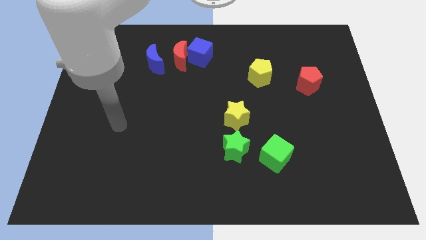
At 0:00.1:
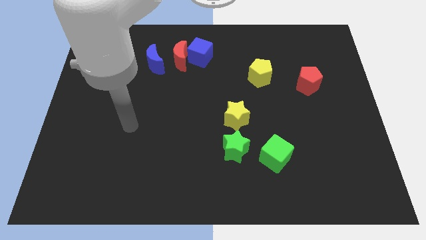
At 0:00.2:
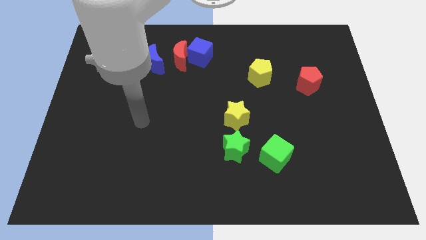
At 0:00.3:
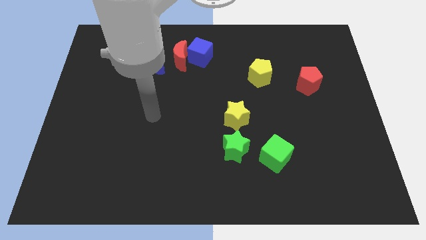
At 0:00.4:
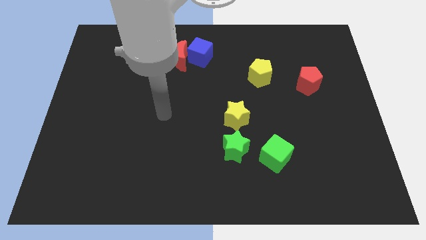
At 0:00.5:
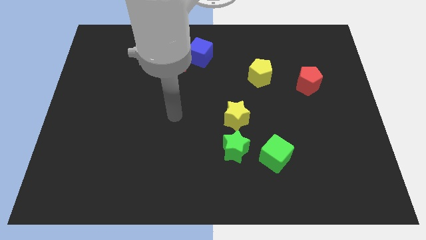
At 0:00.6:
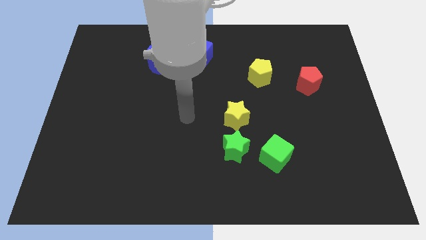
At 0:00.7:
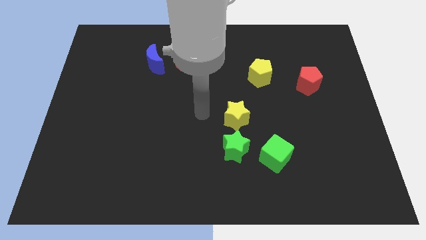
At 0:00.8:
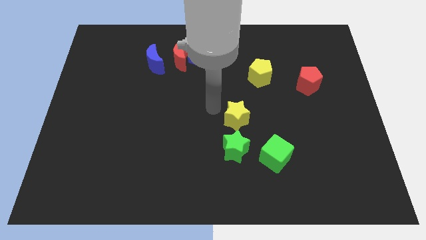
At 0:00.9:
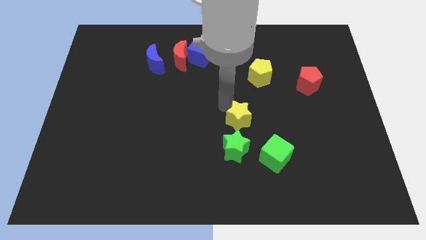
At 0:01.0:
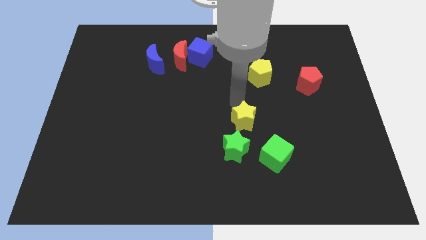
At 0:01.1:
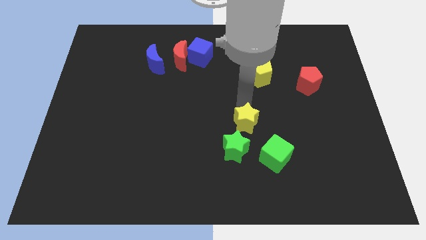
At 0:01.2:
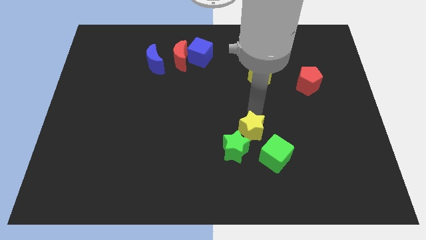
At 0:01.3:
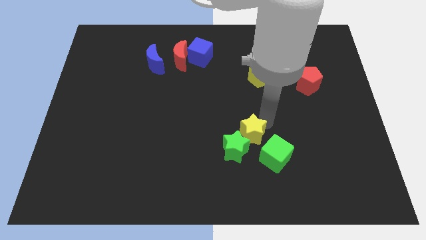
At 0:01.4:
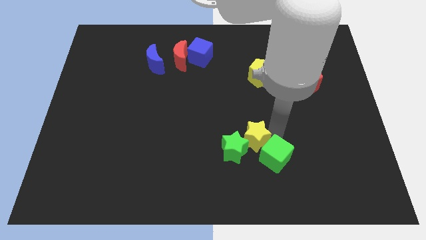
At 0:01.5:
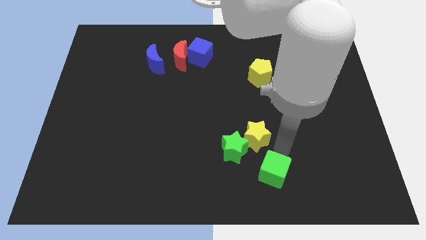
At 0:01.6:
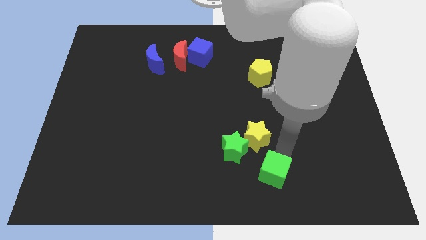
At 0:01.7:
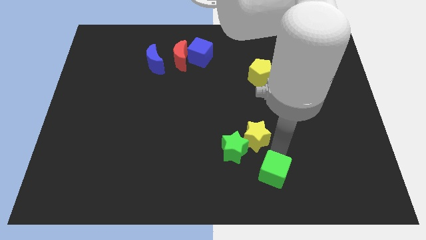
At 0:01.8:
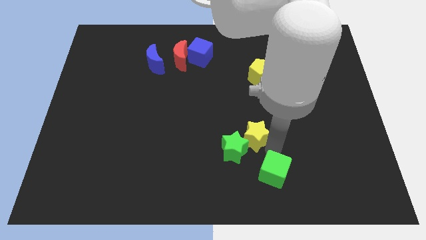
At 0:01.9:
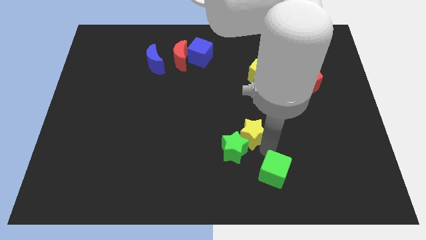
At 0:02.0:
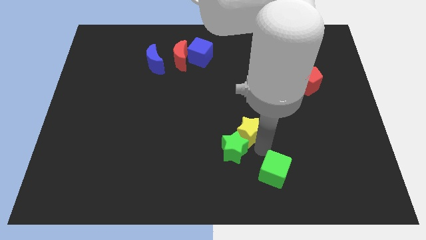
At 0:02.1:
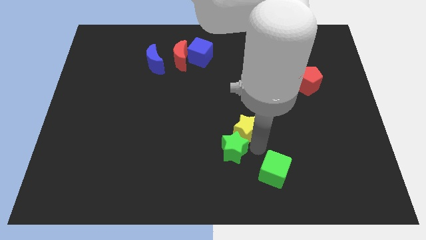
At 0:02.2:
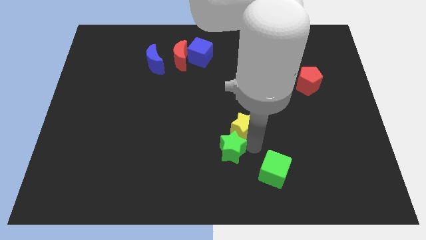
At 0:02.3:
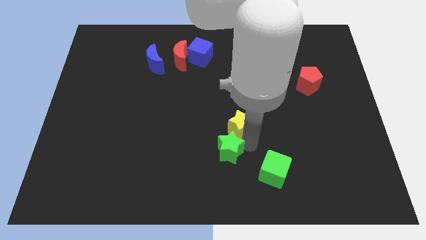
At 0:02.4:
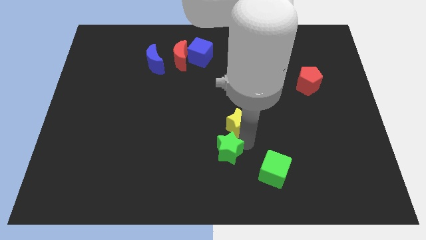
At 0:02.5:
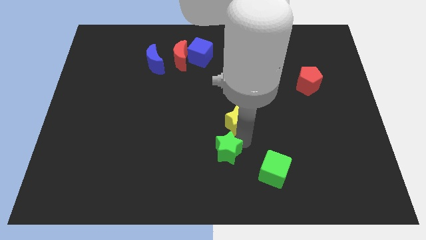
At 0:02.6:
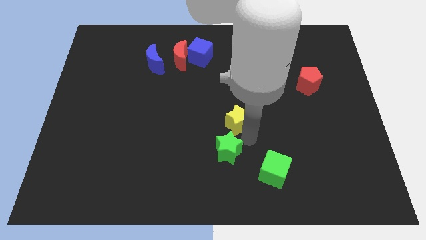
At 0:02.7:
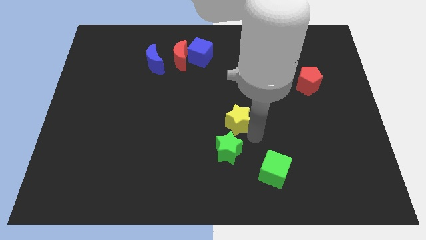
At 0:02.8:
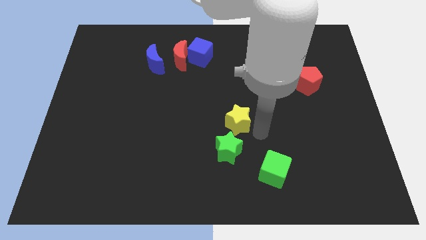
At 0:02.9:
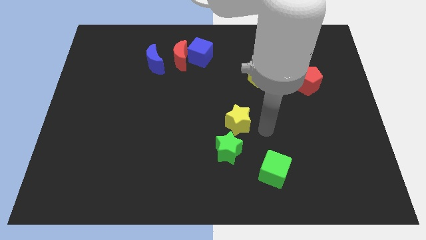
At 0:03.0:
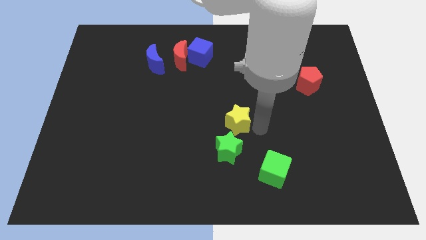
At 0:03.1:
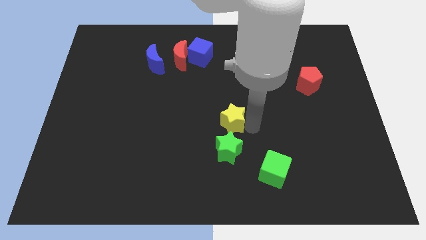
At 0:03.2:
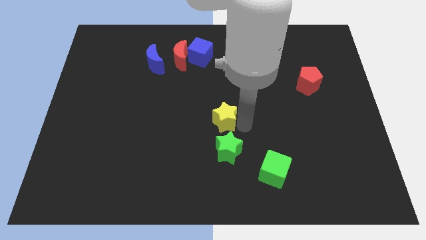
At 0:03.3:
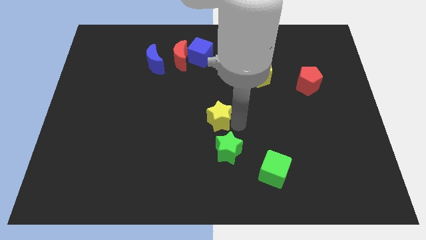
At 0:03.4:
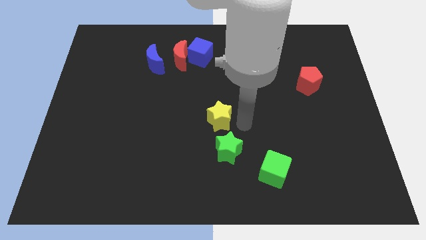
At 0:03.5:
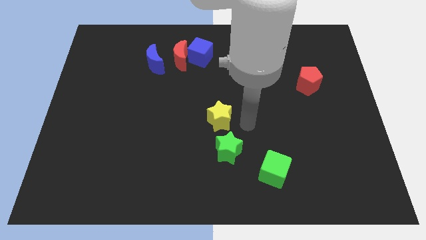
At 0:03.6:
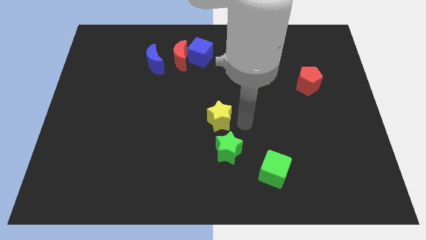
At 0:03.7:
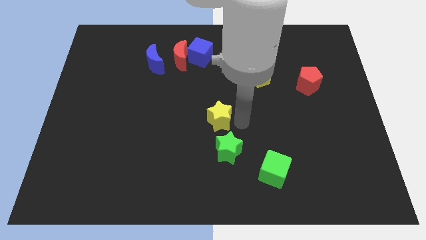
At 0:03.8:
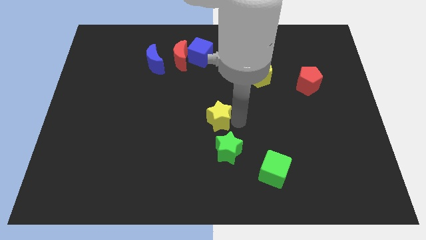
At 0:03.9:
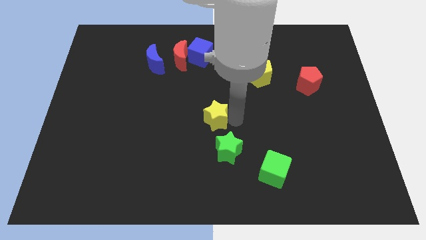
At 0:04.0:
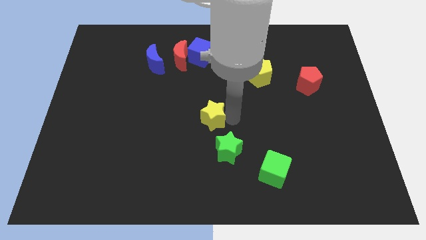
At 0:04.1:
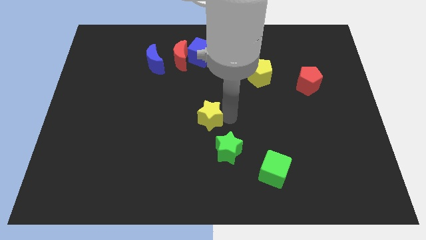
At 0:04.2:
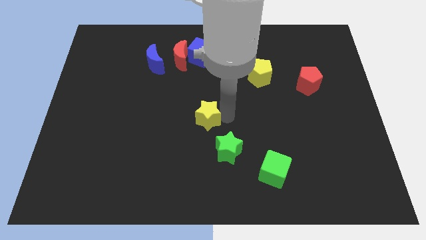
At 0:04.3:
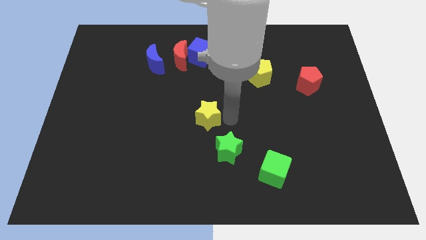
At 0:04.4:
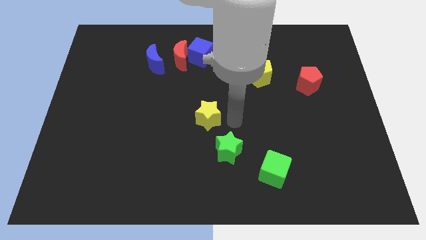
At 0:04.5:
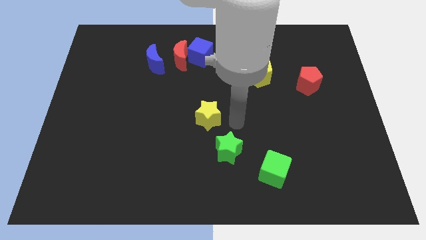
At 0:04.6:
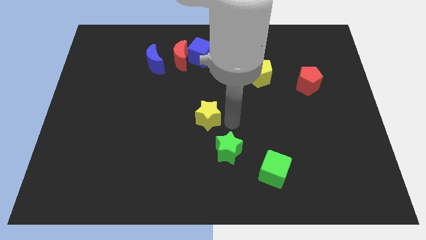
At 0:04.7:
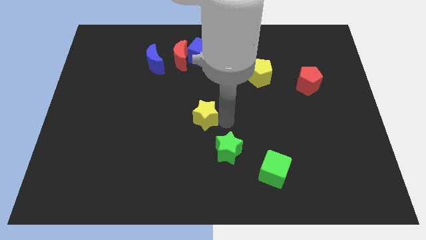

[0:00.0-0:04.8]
slightly move the yellow star to the left

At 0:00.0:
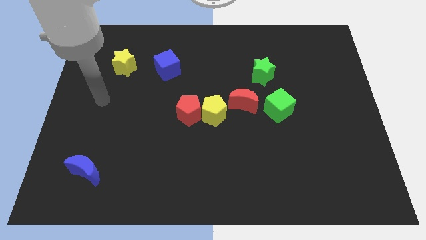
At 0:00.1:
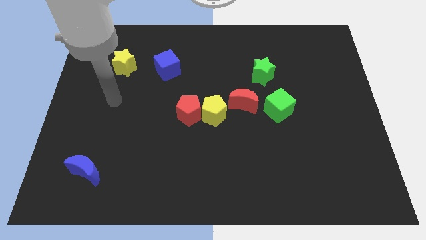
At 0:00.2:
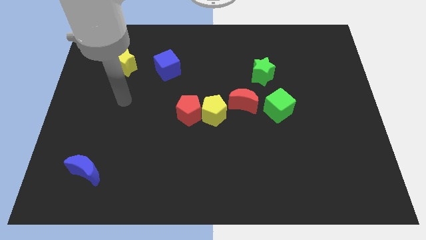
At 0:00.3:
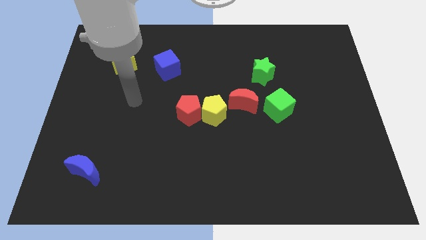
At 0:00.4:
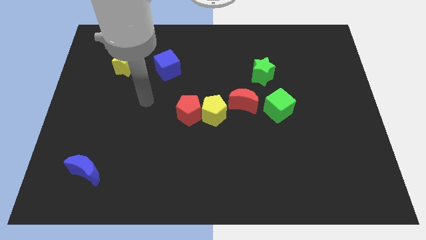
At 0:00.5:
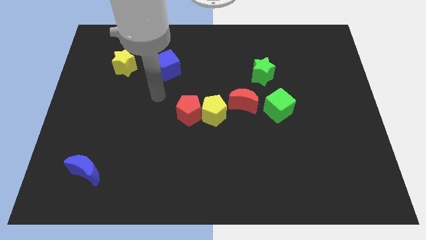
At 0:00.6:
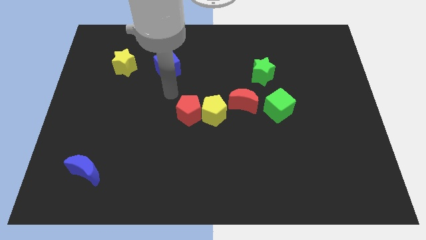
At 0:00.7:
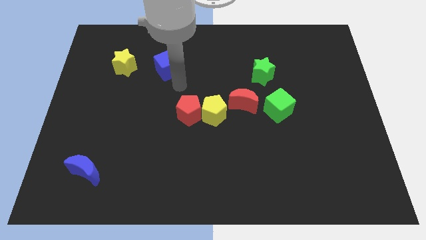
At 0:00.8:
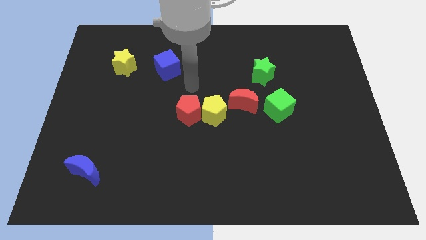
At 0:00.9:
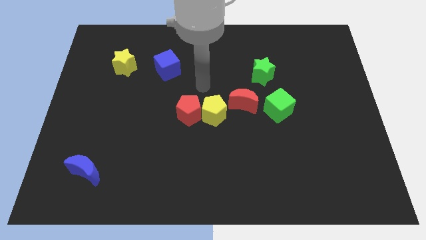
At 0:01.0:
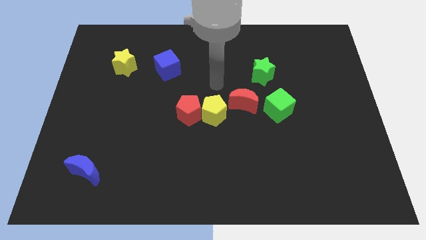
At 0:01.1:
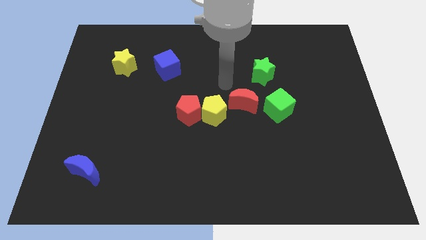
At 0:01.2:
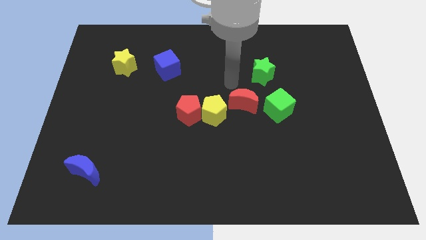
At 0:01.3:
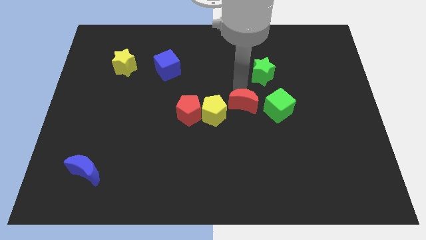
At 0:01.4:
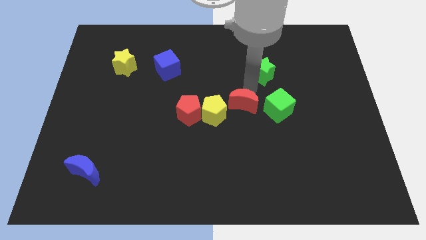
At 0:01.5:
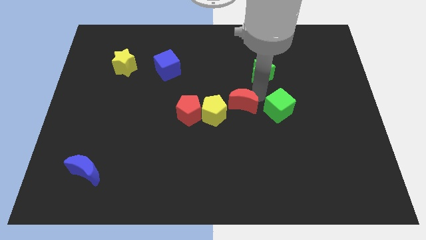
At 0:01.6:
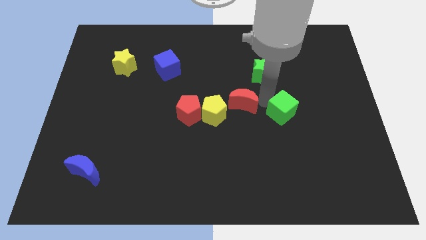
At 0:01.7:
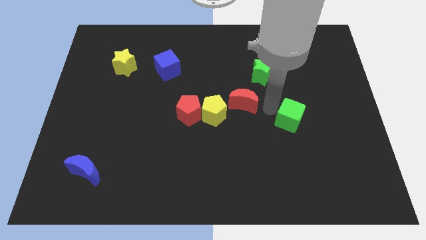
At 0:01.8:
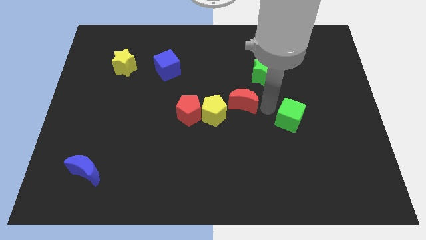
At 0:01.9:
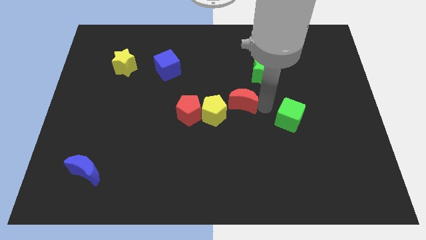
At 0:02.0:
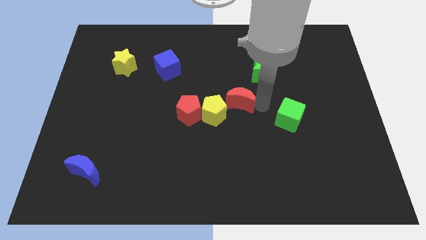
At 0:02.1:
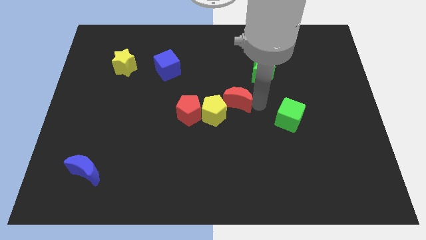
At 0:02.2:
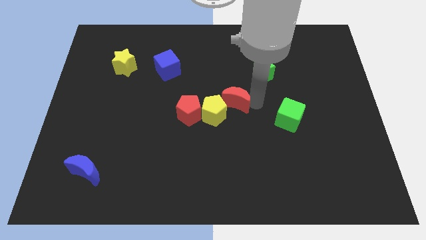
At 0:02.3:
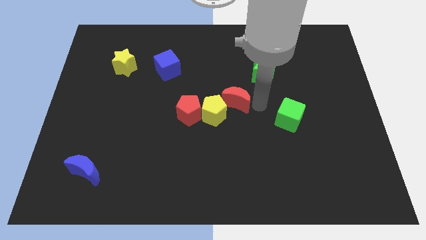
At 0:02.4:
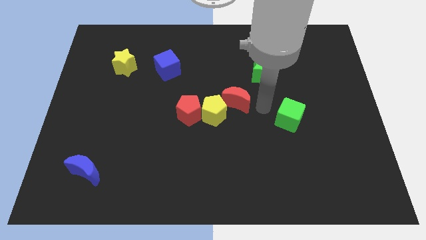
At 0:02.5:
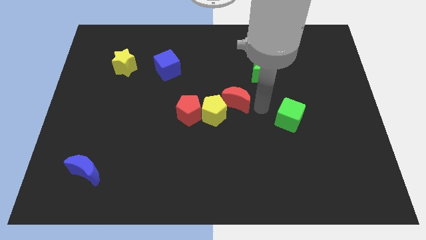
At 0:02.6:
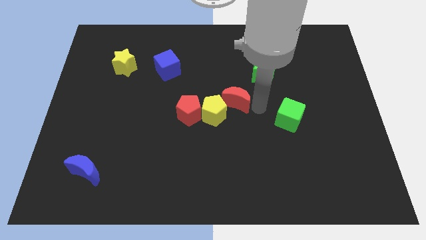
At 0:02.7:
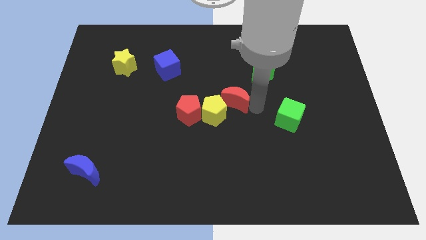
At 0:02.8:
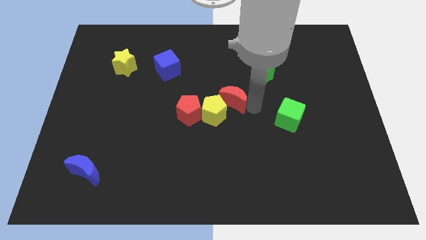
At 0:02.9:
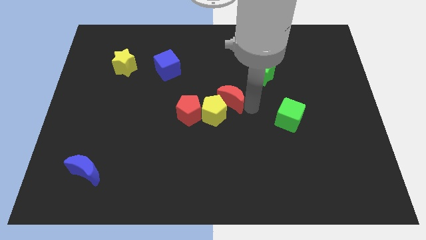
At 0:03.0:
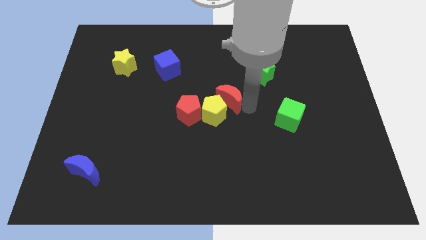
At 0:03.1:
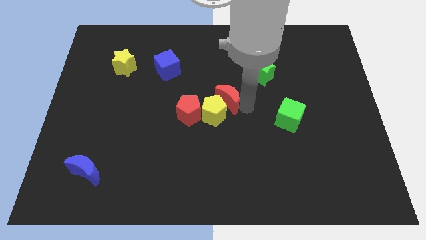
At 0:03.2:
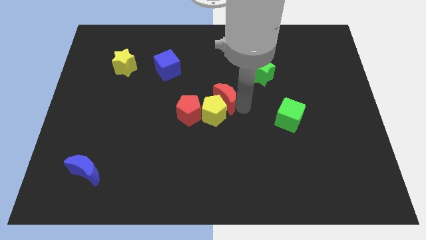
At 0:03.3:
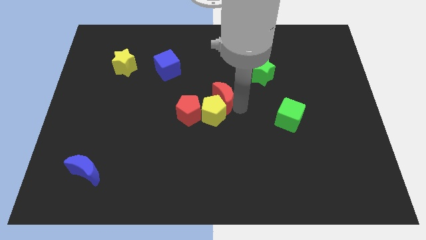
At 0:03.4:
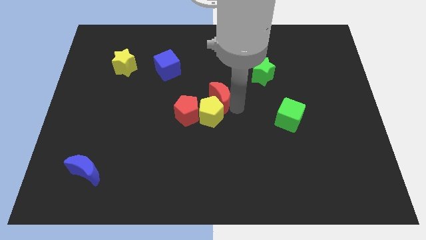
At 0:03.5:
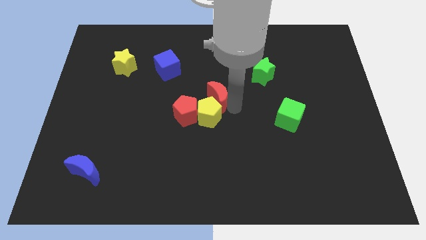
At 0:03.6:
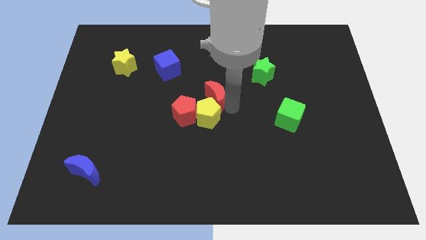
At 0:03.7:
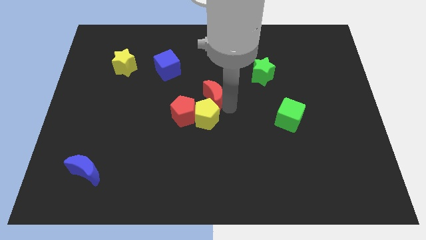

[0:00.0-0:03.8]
slightly push the red moon left
